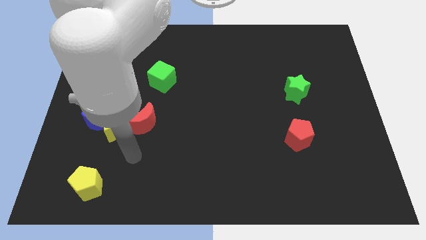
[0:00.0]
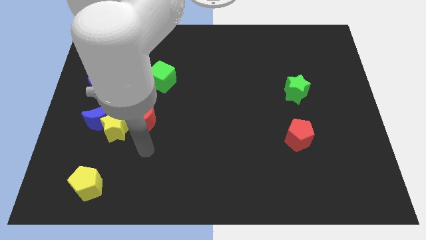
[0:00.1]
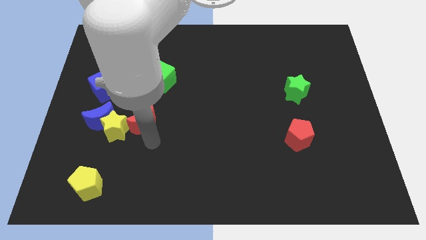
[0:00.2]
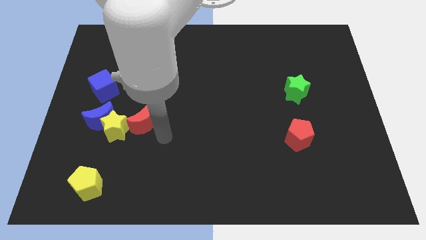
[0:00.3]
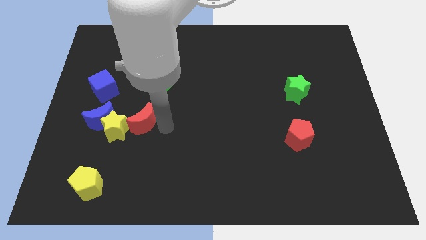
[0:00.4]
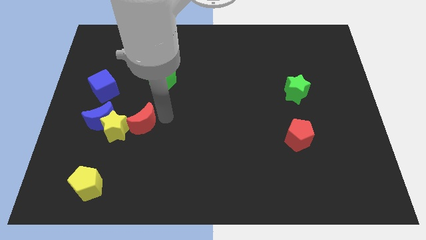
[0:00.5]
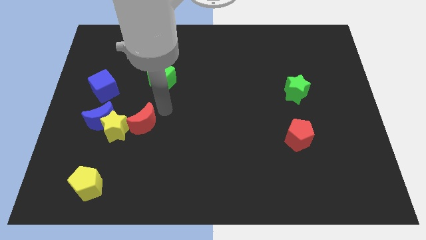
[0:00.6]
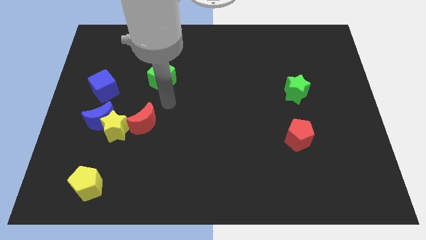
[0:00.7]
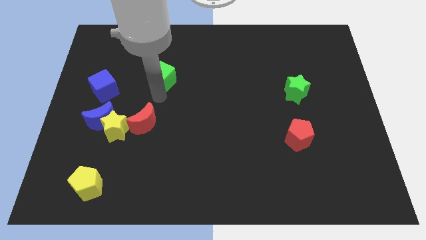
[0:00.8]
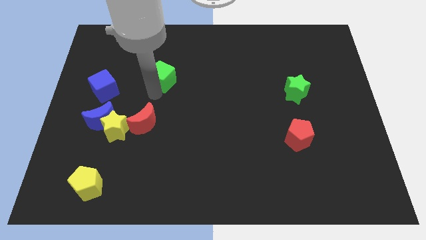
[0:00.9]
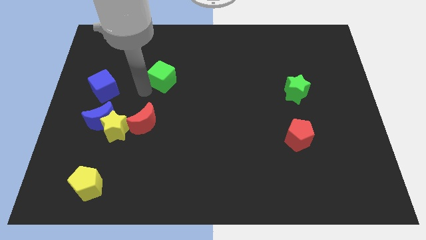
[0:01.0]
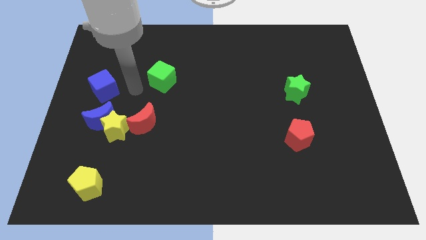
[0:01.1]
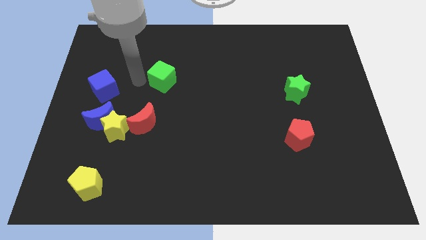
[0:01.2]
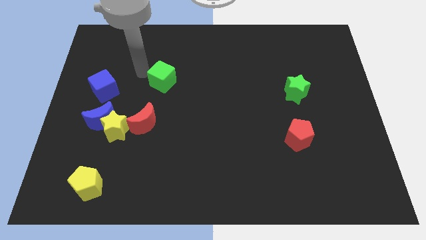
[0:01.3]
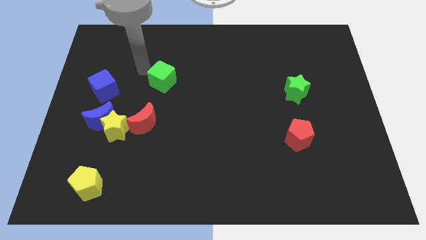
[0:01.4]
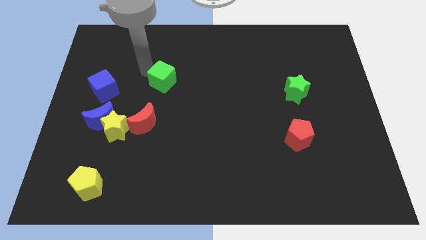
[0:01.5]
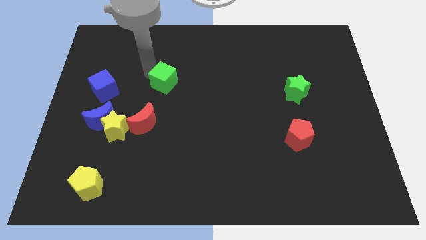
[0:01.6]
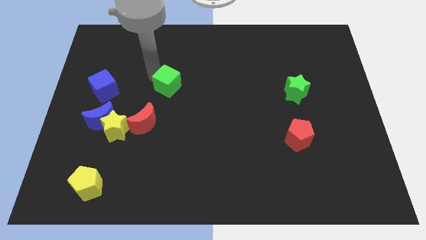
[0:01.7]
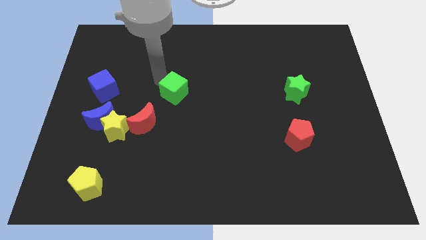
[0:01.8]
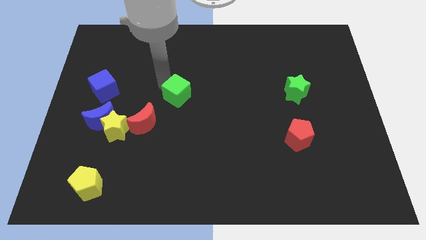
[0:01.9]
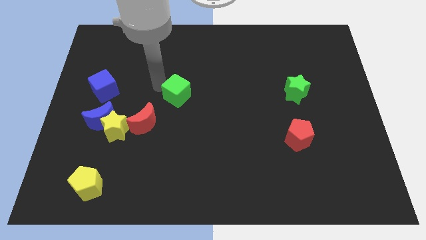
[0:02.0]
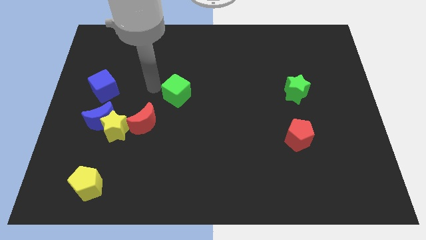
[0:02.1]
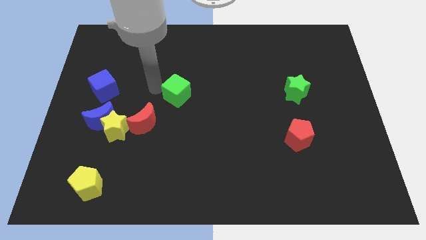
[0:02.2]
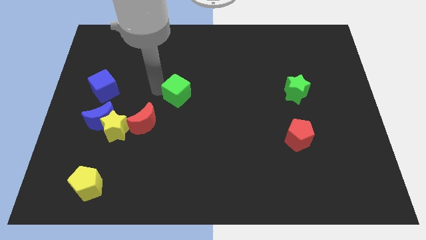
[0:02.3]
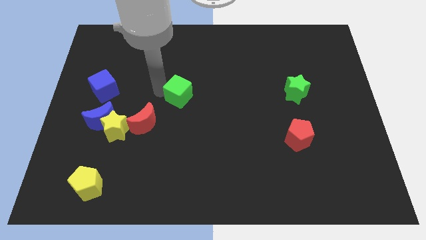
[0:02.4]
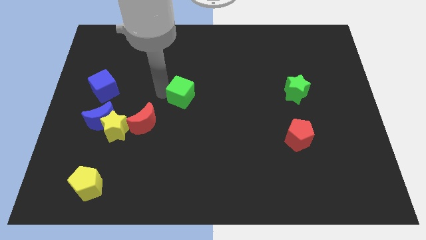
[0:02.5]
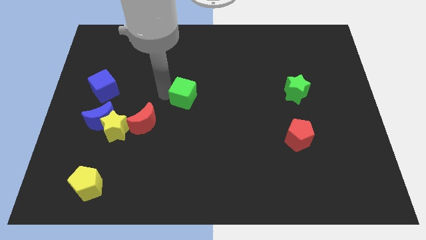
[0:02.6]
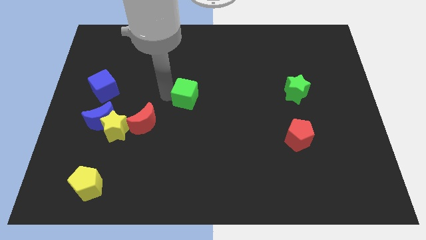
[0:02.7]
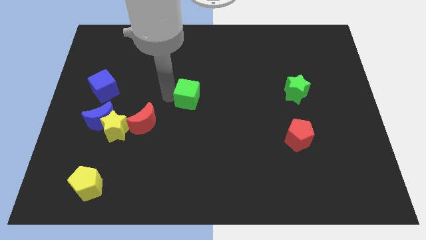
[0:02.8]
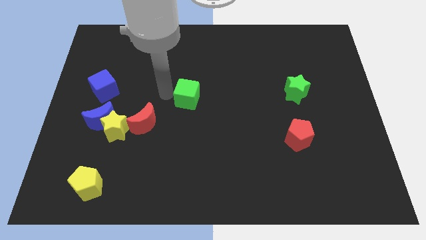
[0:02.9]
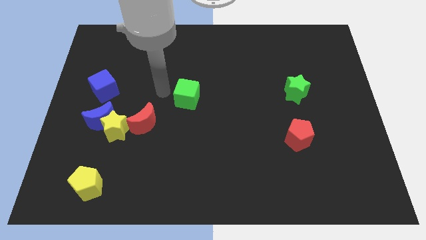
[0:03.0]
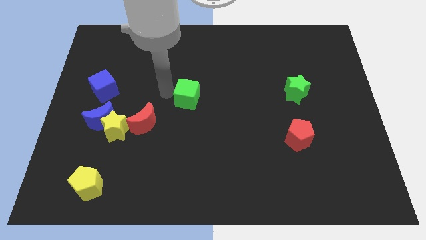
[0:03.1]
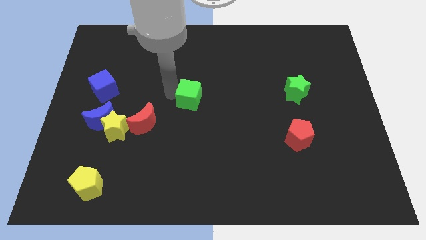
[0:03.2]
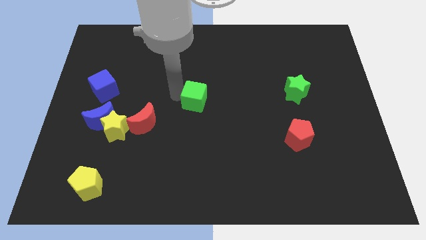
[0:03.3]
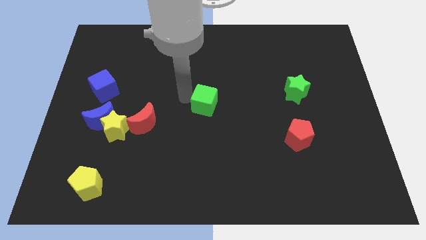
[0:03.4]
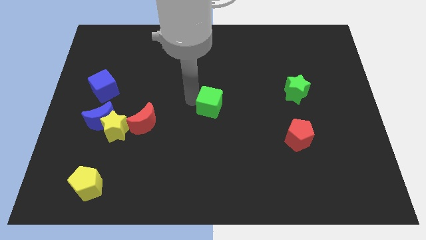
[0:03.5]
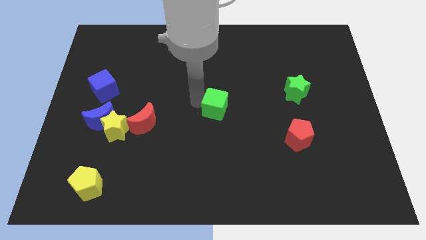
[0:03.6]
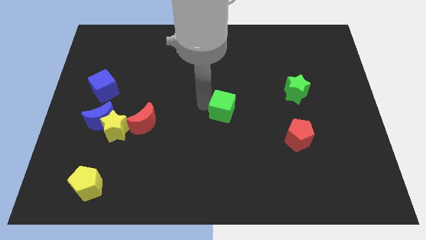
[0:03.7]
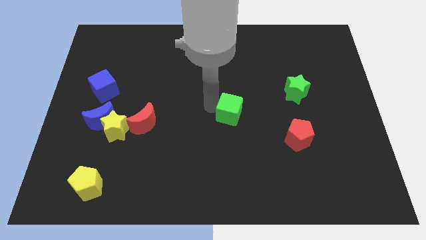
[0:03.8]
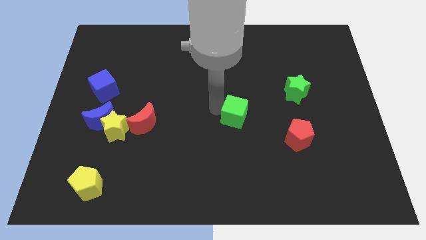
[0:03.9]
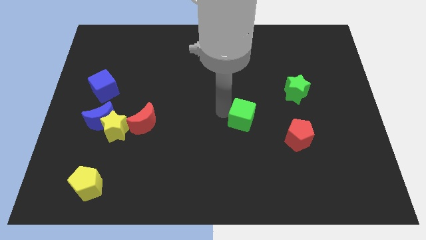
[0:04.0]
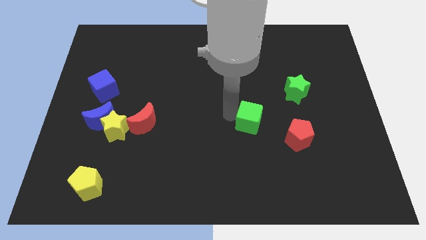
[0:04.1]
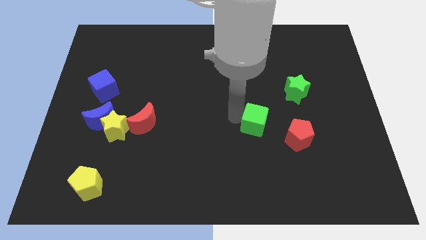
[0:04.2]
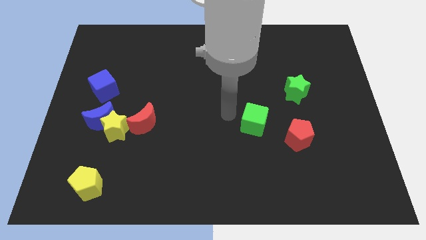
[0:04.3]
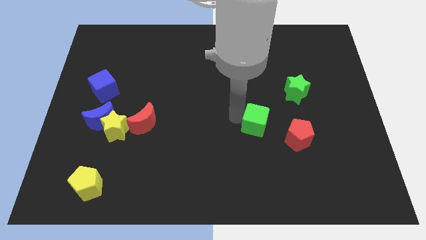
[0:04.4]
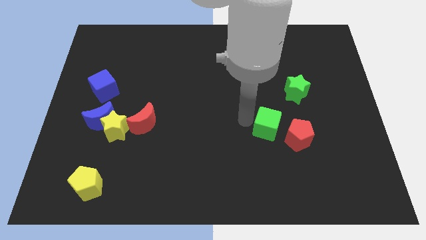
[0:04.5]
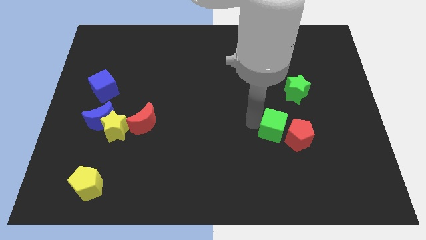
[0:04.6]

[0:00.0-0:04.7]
slide the green cube next to the red pentagon

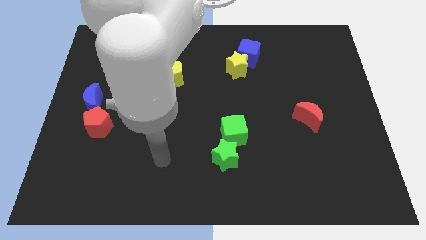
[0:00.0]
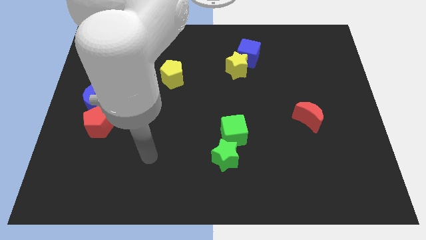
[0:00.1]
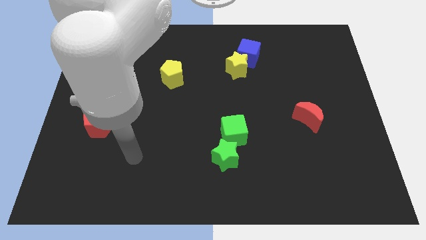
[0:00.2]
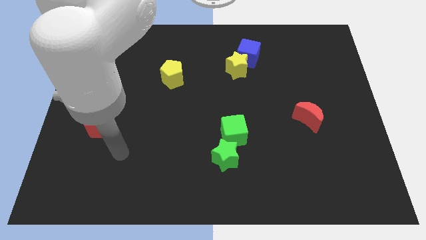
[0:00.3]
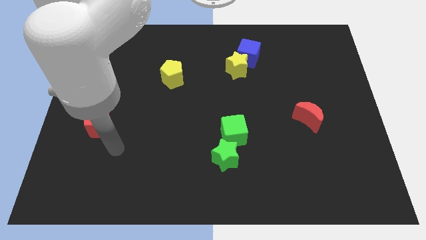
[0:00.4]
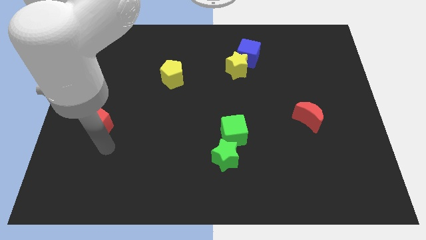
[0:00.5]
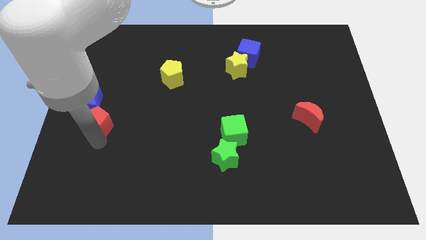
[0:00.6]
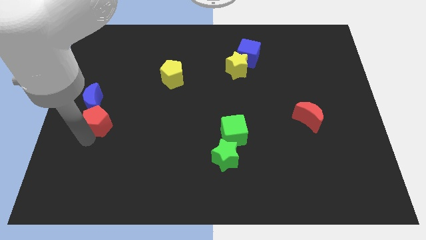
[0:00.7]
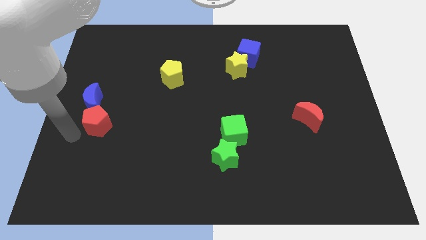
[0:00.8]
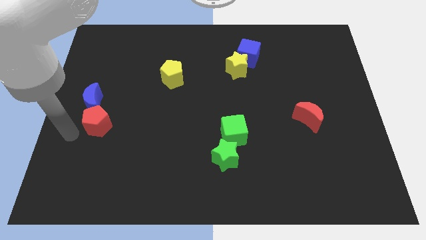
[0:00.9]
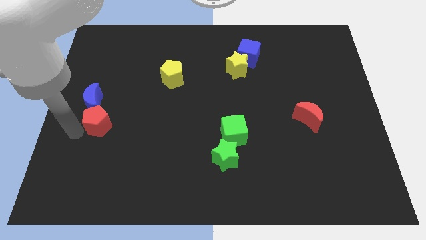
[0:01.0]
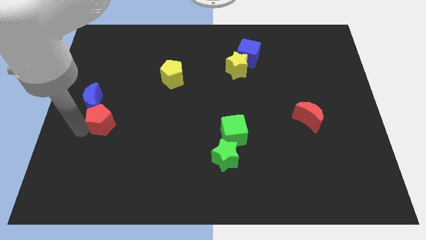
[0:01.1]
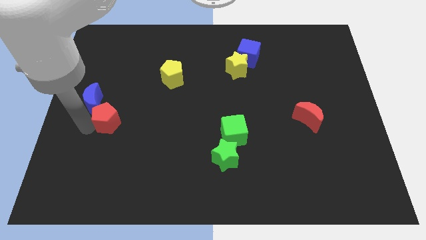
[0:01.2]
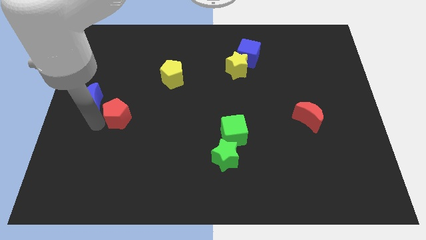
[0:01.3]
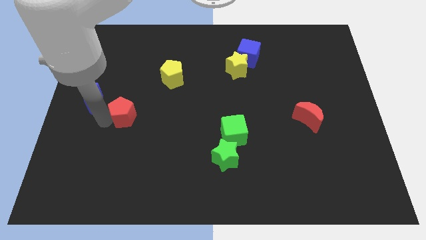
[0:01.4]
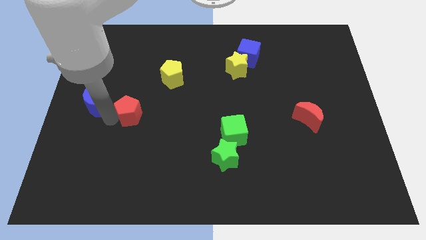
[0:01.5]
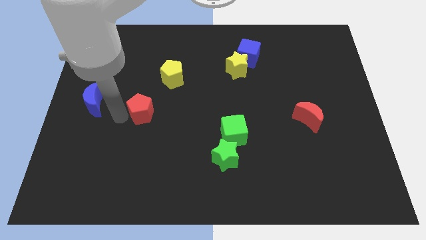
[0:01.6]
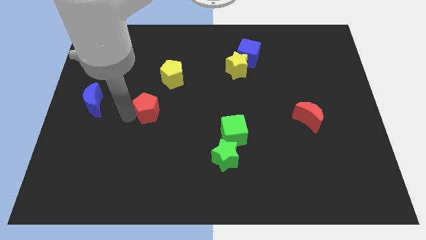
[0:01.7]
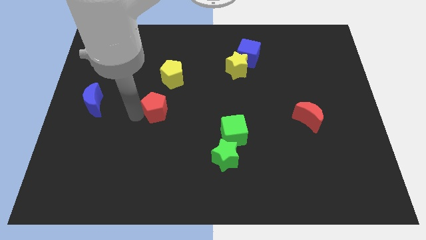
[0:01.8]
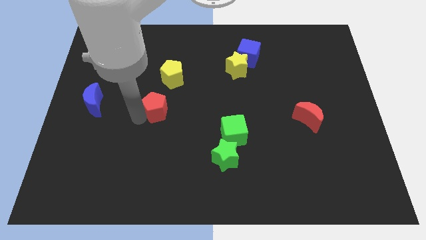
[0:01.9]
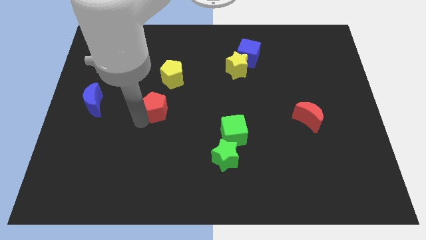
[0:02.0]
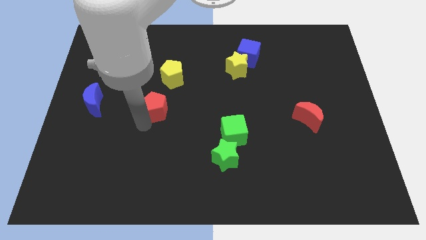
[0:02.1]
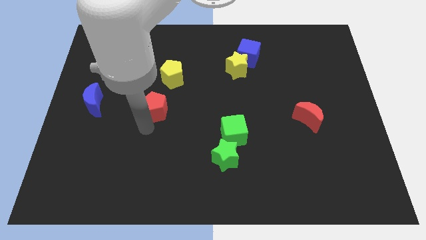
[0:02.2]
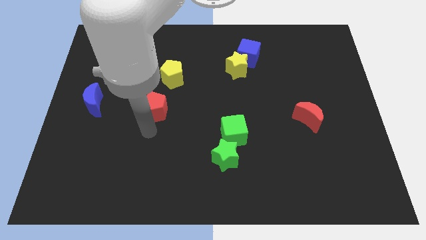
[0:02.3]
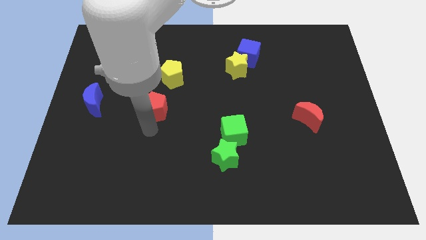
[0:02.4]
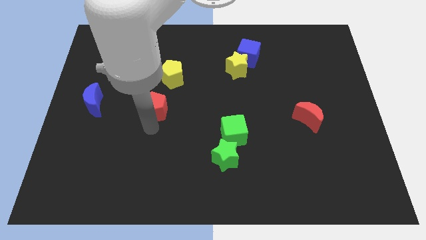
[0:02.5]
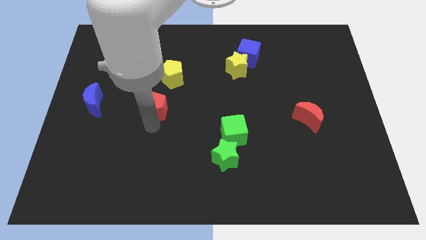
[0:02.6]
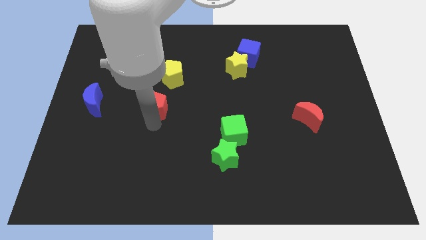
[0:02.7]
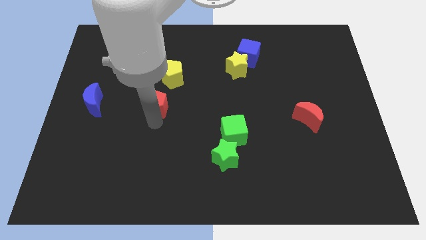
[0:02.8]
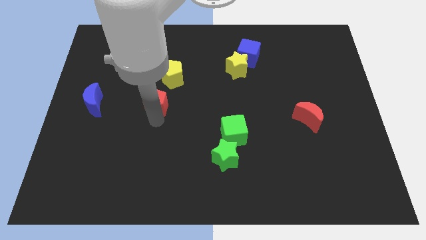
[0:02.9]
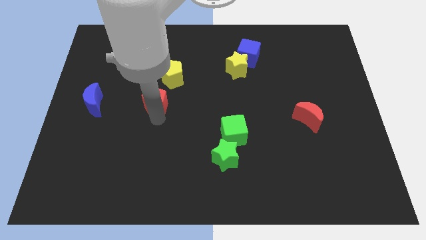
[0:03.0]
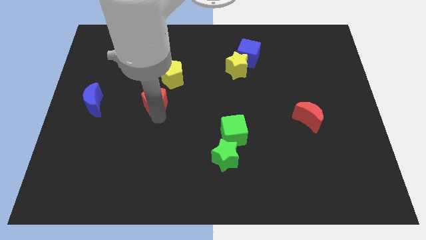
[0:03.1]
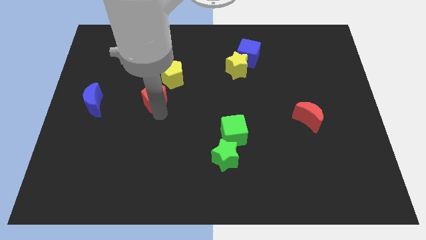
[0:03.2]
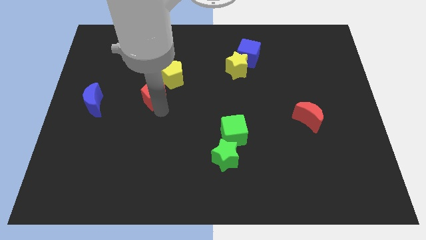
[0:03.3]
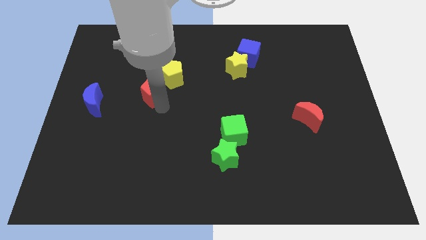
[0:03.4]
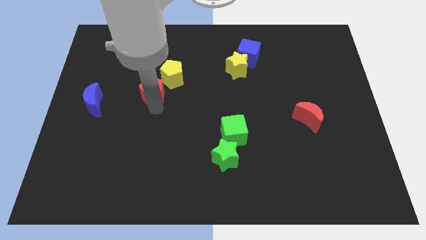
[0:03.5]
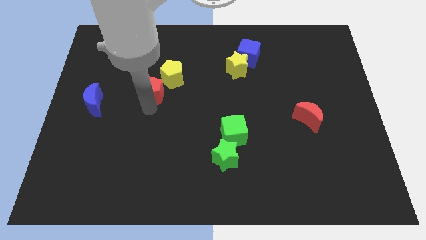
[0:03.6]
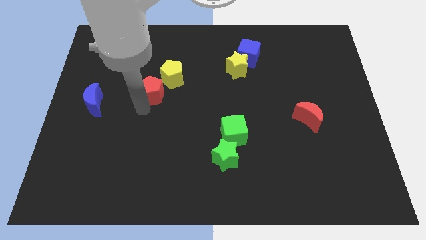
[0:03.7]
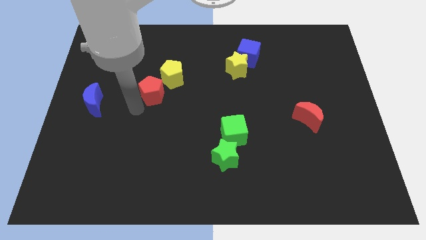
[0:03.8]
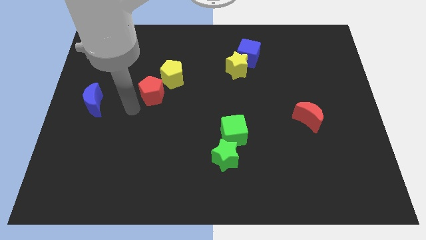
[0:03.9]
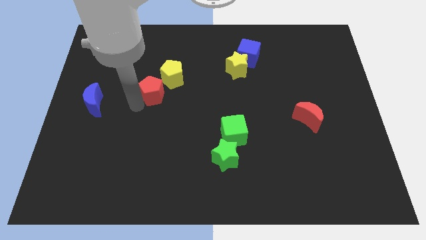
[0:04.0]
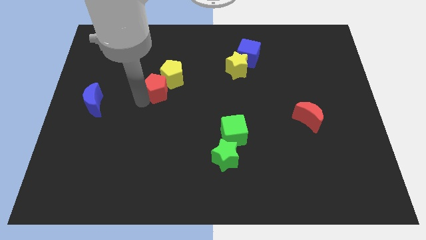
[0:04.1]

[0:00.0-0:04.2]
push the red pentagon to the yellow pentagon
